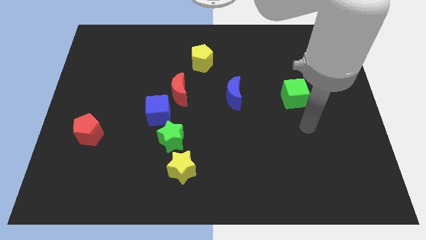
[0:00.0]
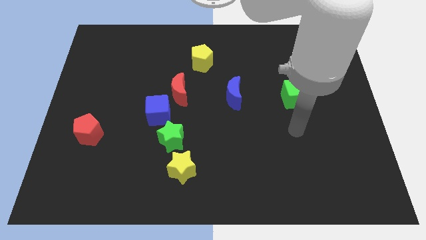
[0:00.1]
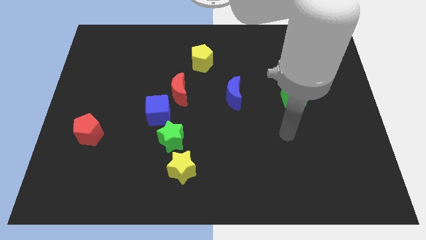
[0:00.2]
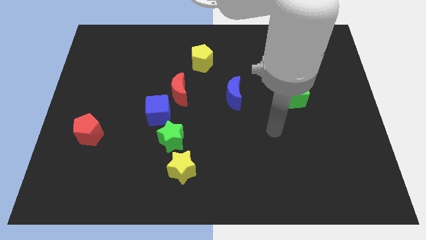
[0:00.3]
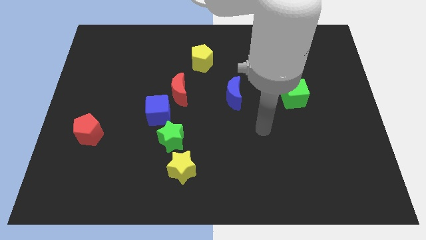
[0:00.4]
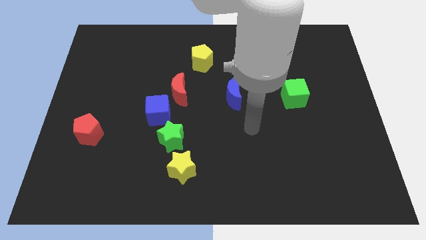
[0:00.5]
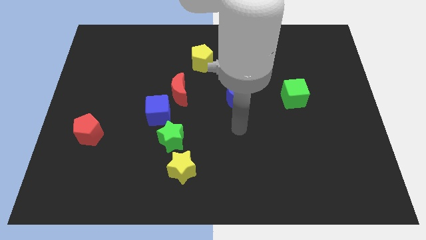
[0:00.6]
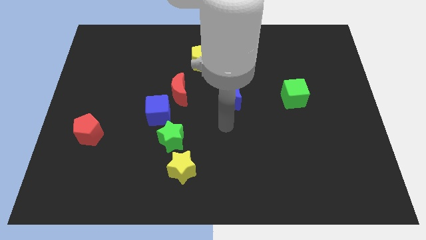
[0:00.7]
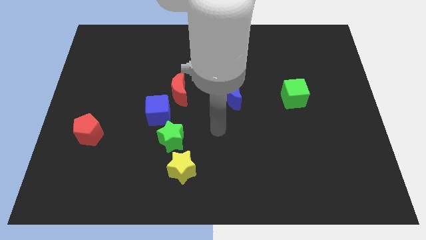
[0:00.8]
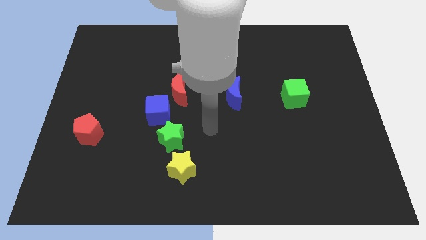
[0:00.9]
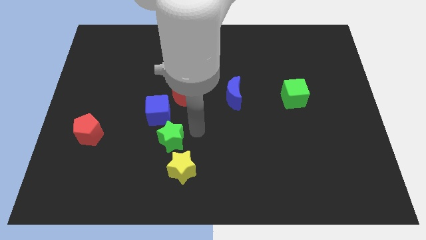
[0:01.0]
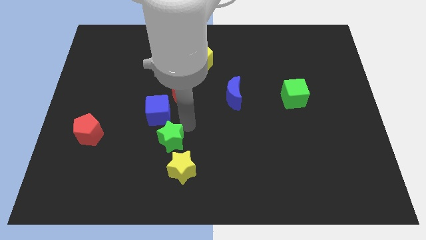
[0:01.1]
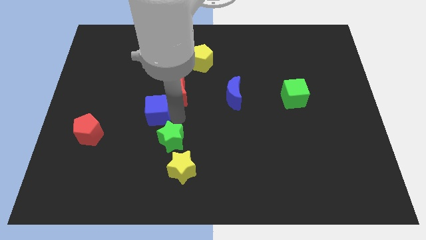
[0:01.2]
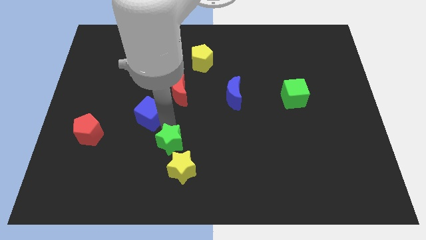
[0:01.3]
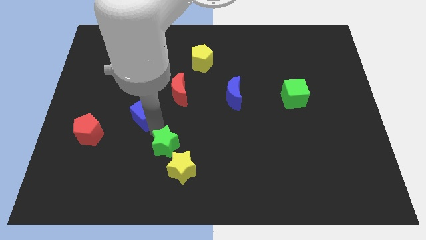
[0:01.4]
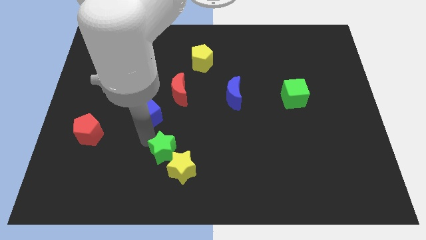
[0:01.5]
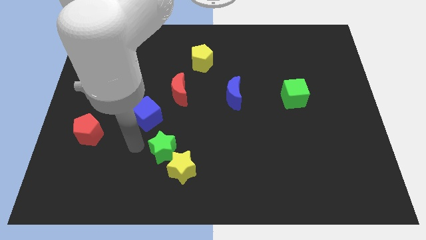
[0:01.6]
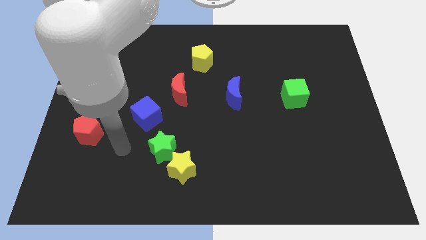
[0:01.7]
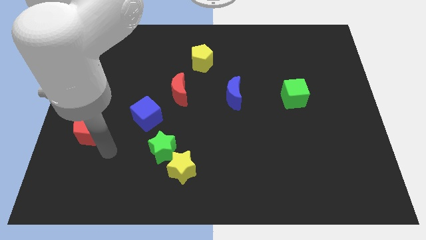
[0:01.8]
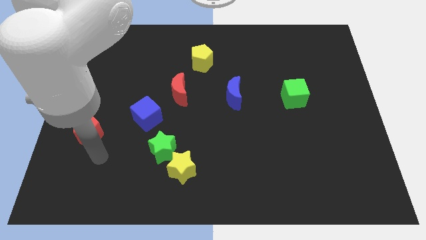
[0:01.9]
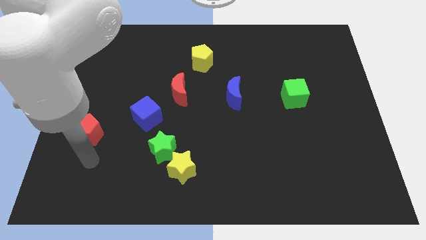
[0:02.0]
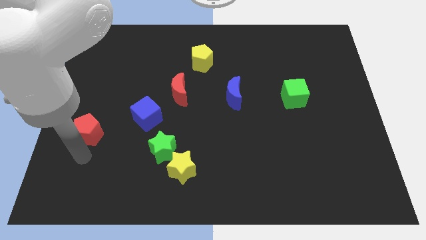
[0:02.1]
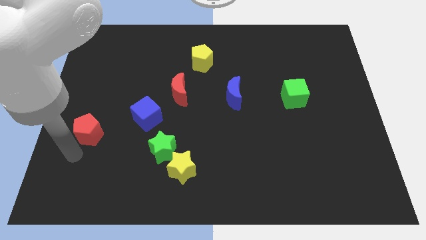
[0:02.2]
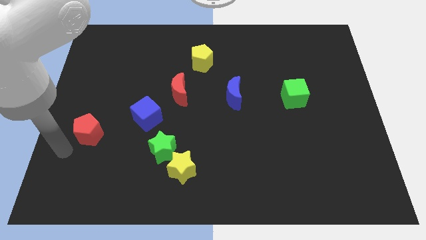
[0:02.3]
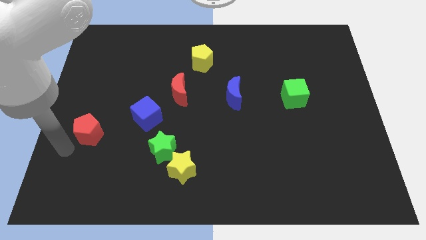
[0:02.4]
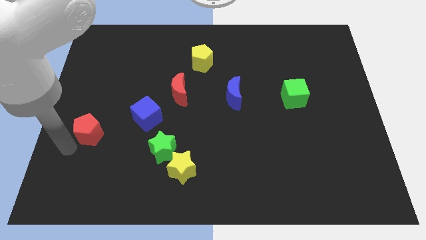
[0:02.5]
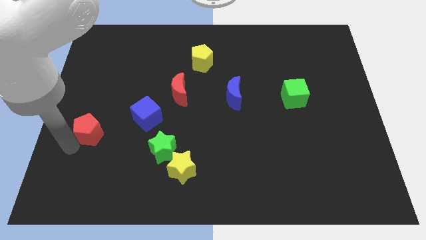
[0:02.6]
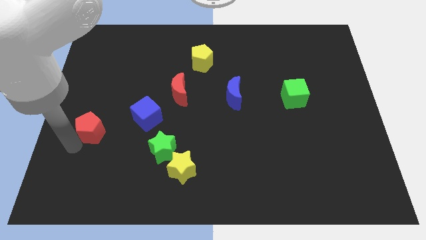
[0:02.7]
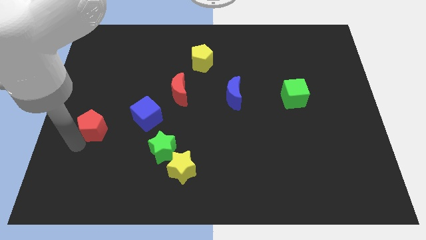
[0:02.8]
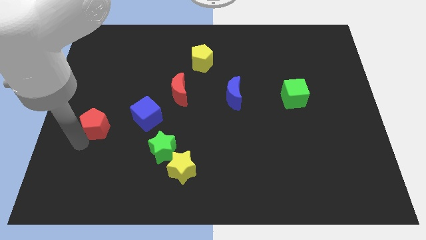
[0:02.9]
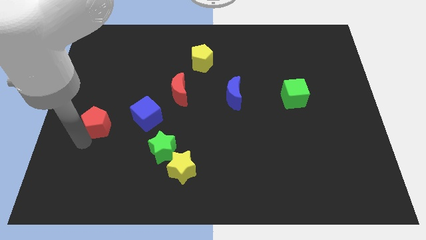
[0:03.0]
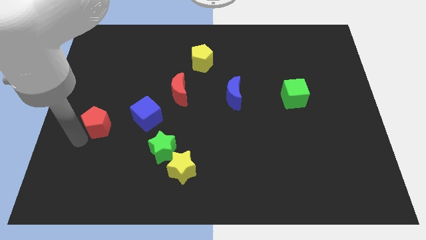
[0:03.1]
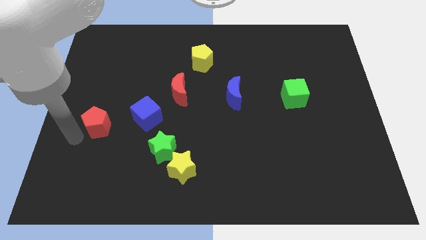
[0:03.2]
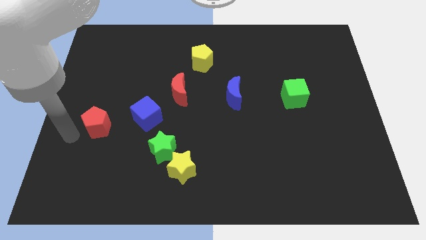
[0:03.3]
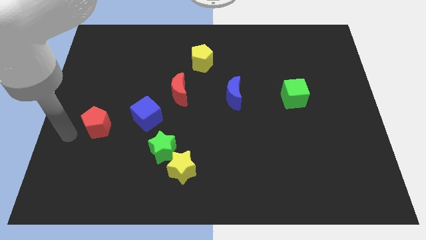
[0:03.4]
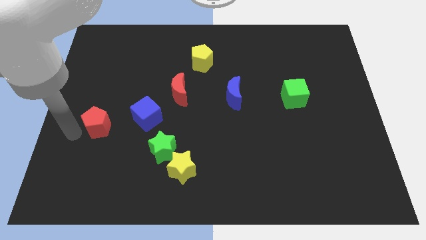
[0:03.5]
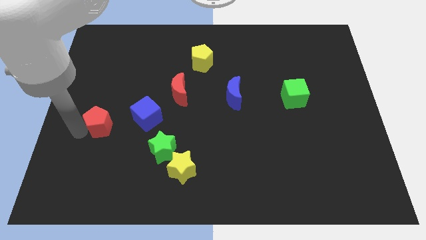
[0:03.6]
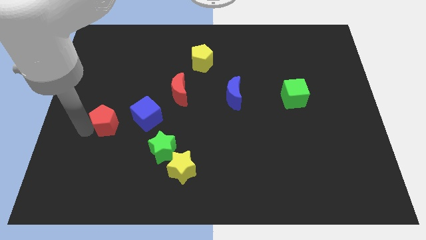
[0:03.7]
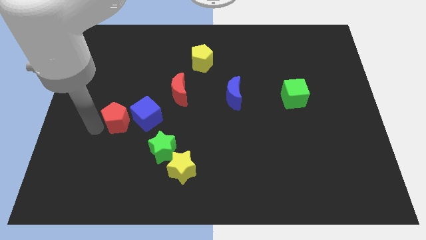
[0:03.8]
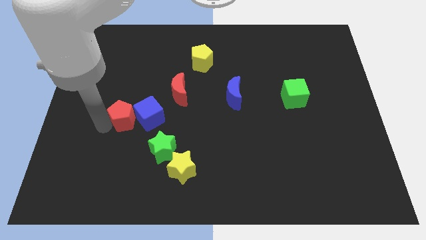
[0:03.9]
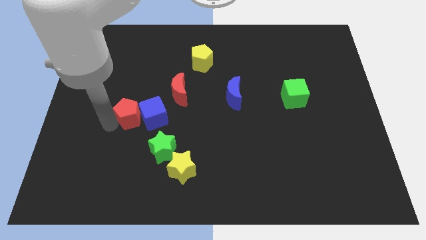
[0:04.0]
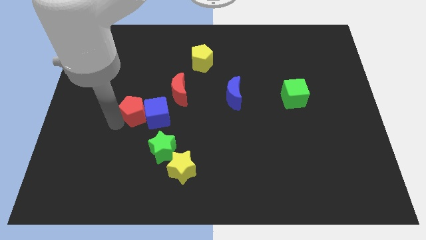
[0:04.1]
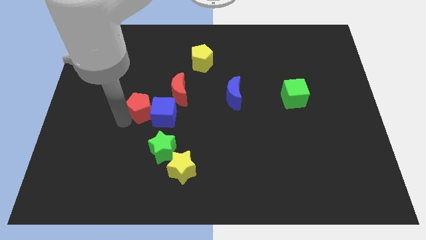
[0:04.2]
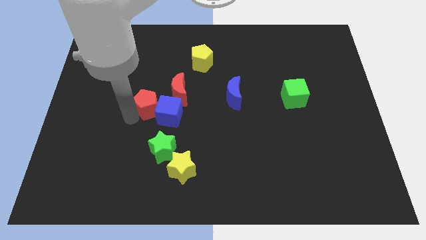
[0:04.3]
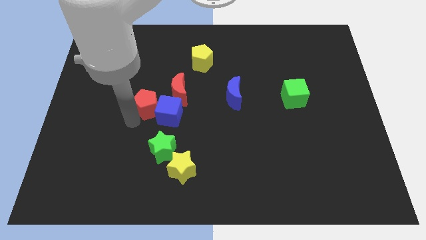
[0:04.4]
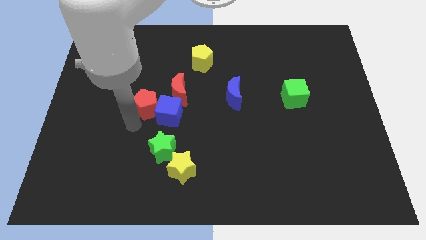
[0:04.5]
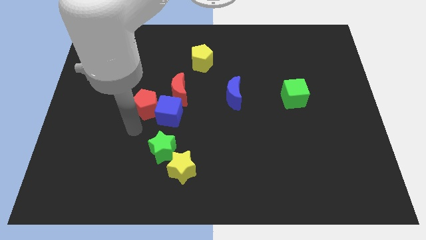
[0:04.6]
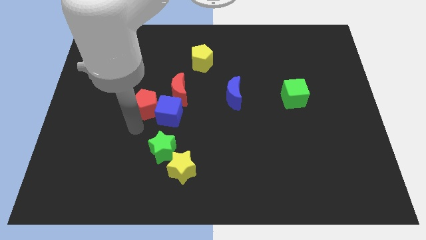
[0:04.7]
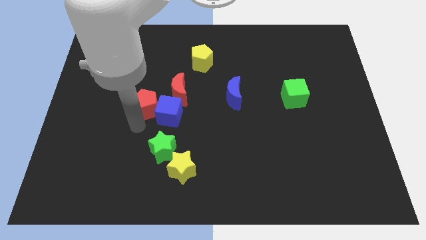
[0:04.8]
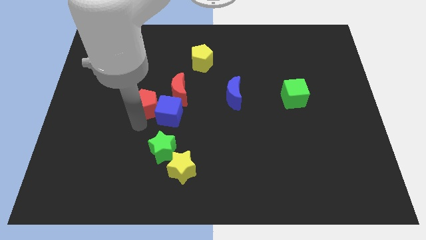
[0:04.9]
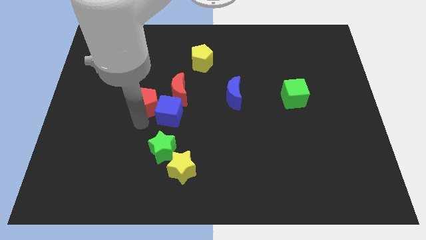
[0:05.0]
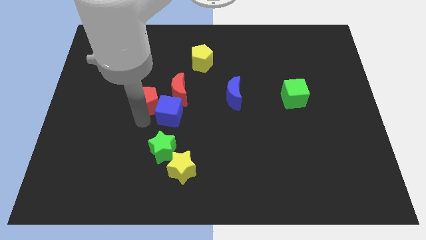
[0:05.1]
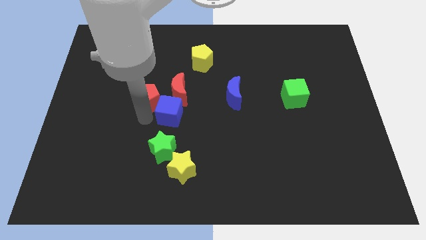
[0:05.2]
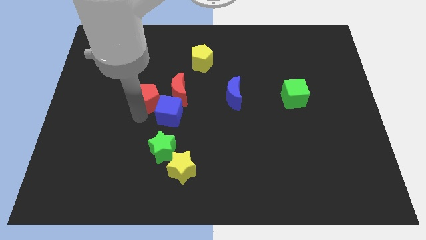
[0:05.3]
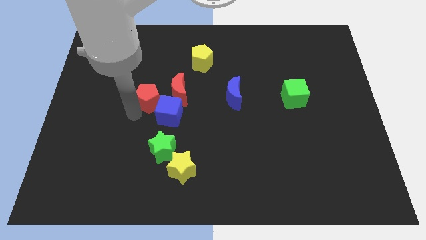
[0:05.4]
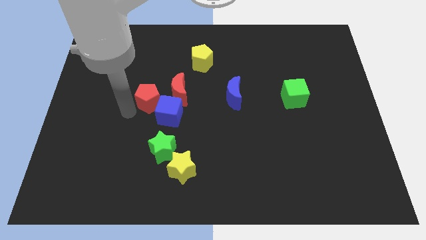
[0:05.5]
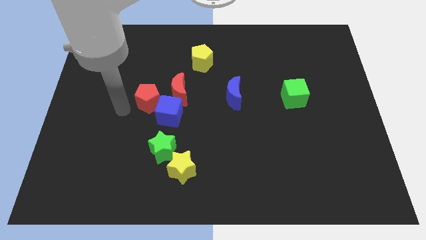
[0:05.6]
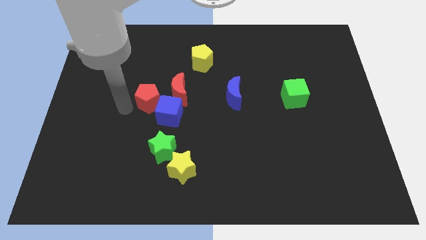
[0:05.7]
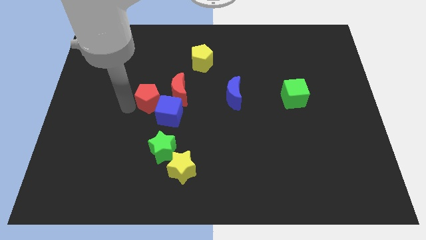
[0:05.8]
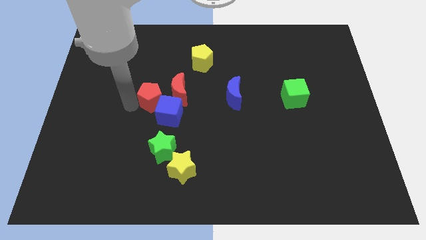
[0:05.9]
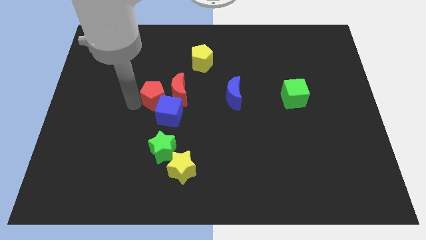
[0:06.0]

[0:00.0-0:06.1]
slide the red pentagon next to the red moon
